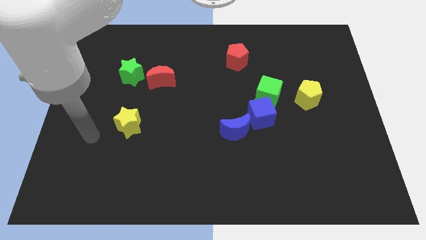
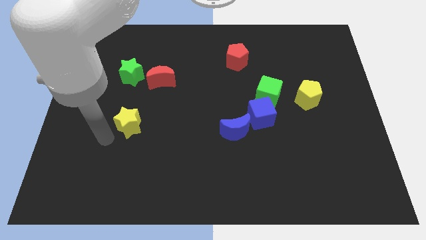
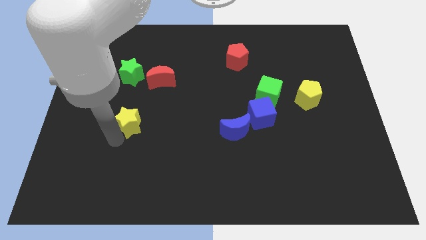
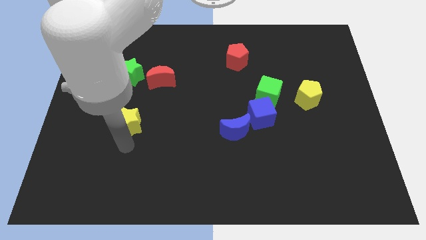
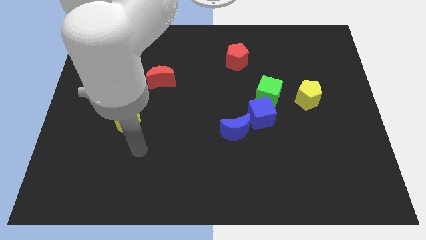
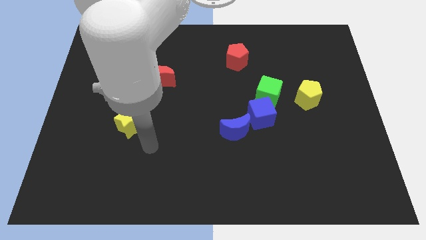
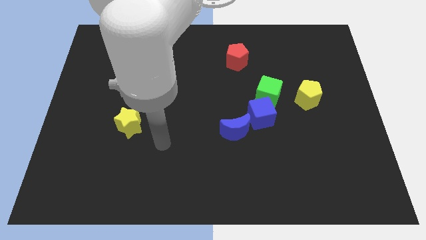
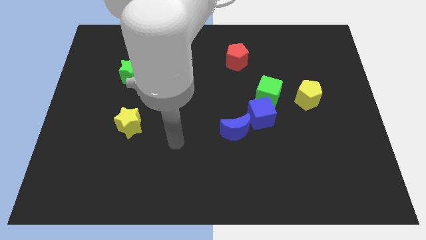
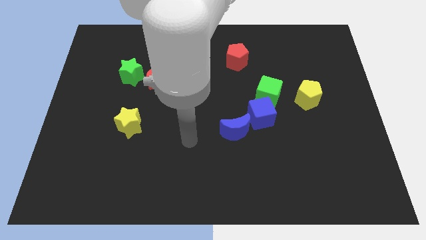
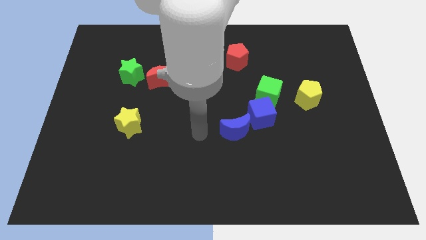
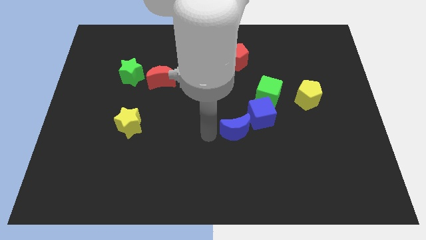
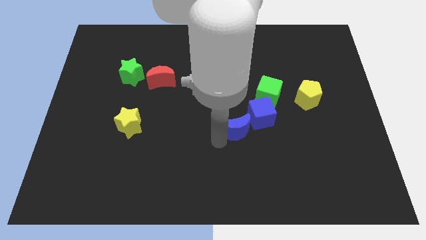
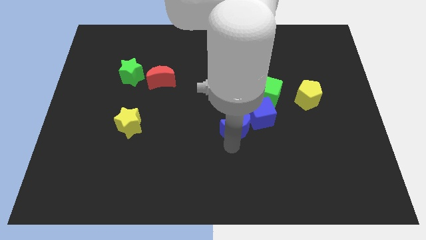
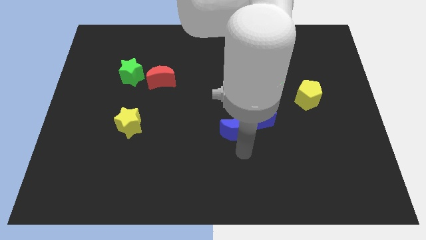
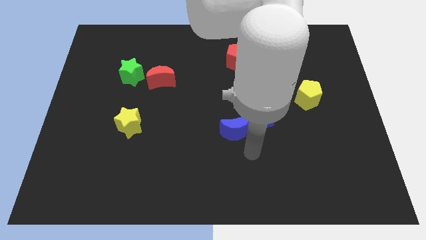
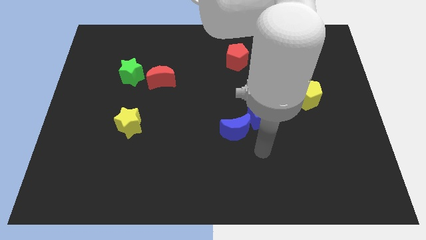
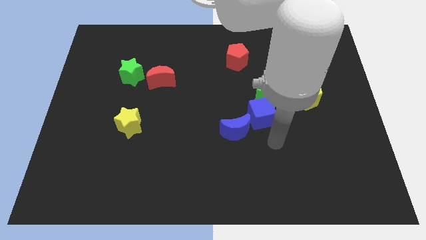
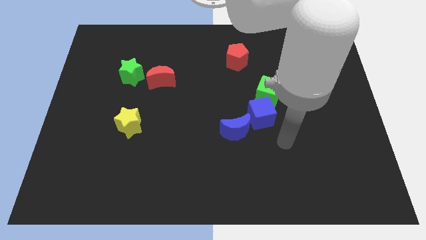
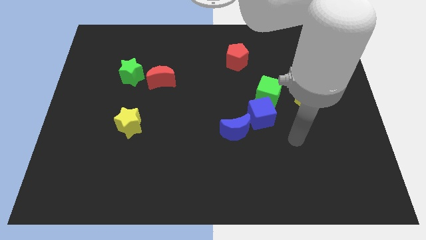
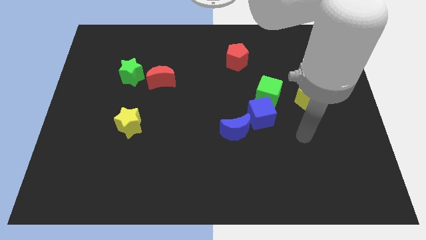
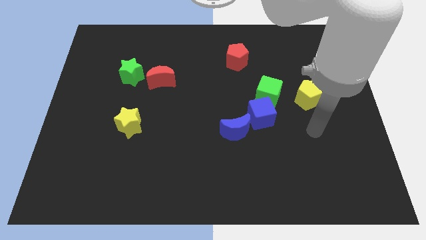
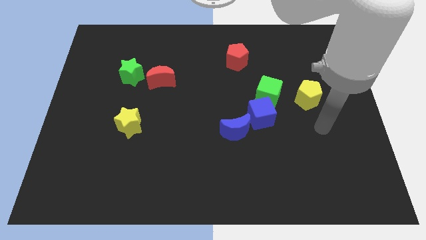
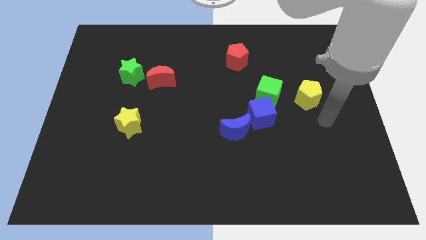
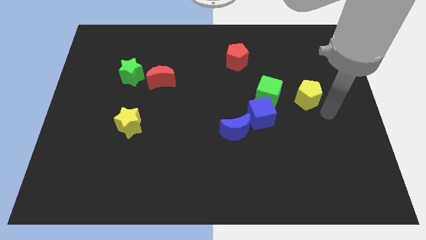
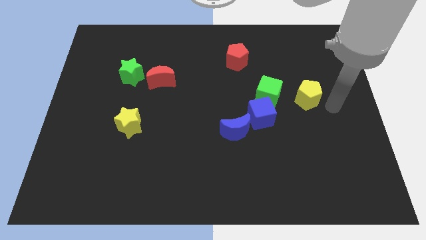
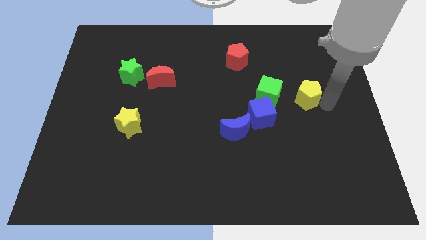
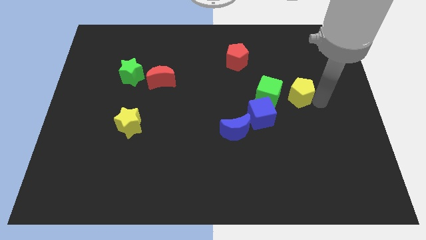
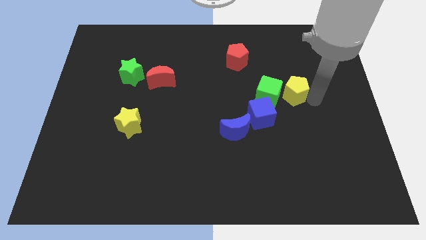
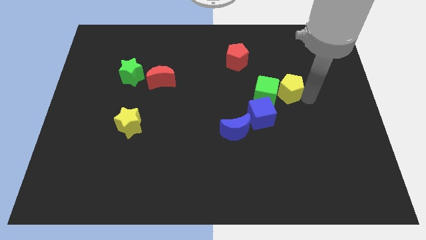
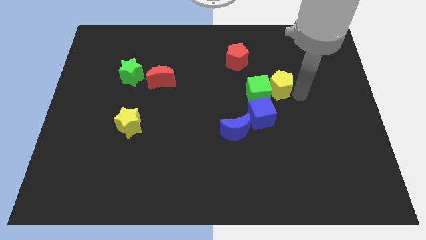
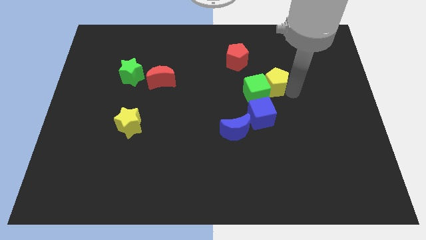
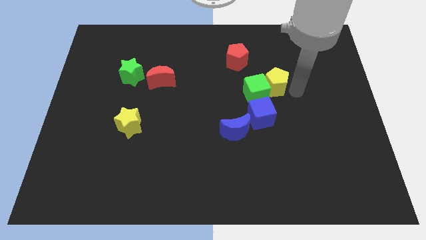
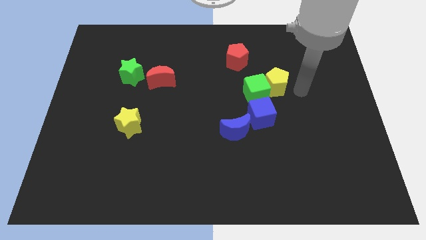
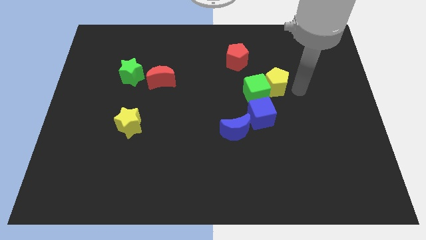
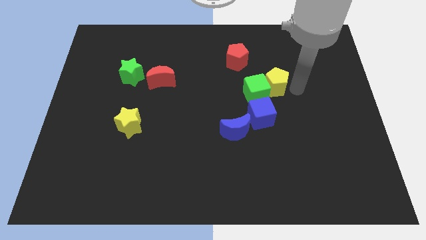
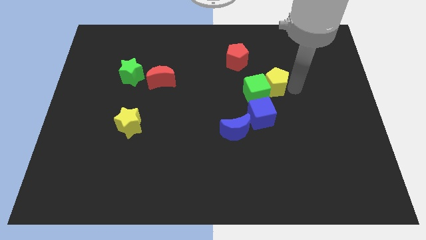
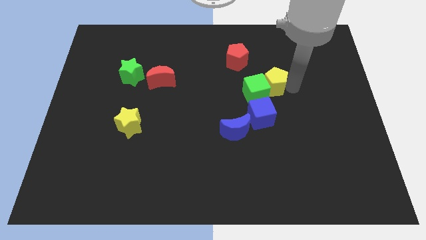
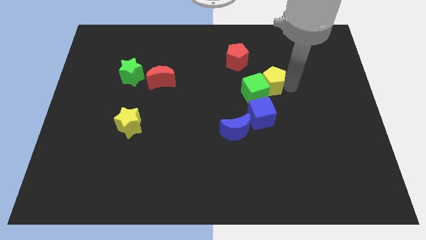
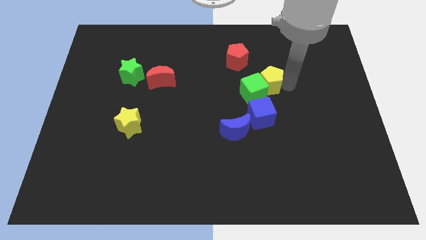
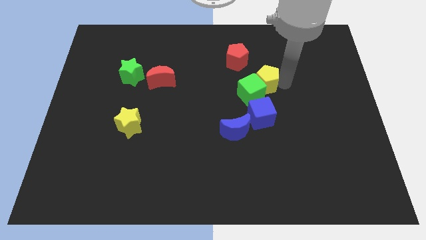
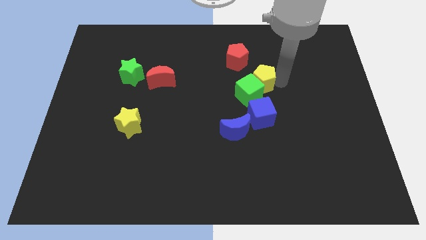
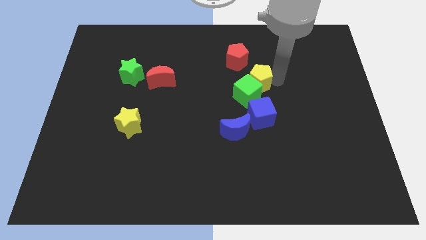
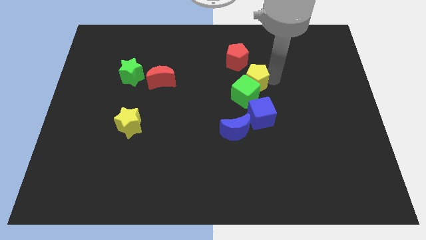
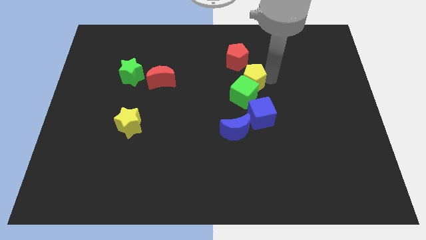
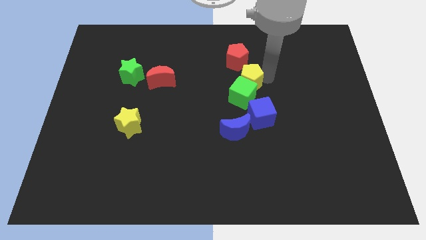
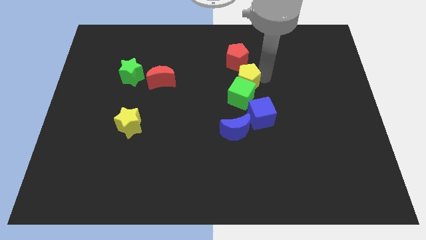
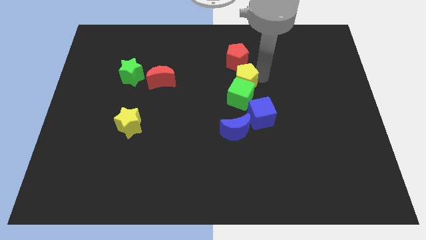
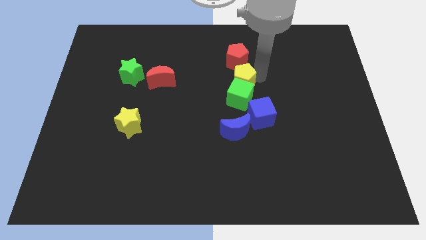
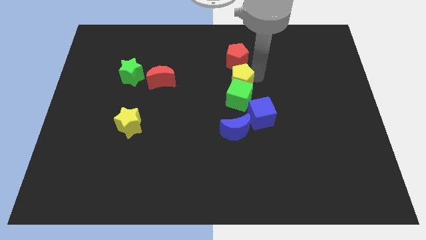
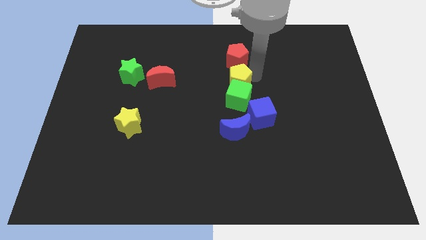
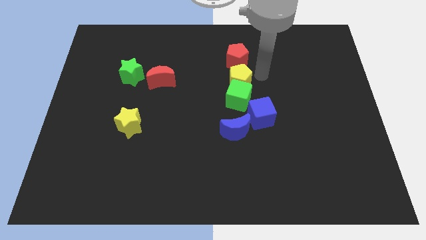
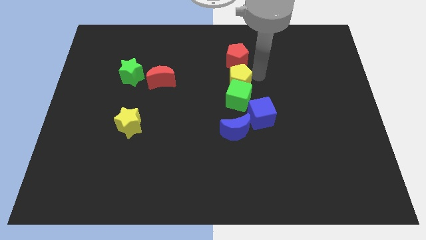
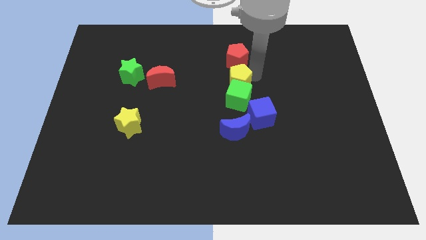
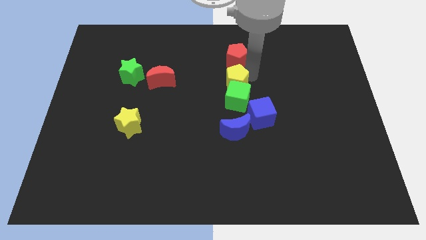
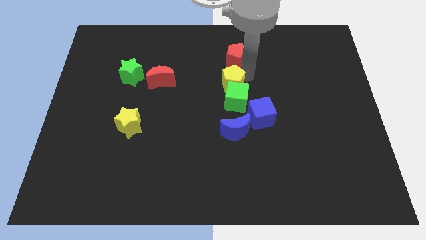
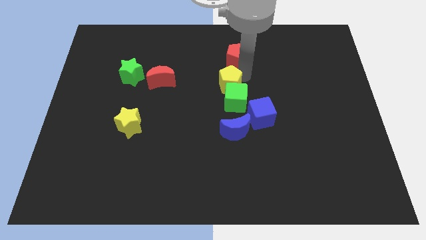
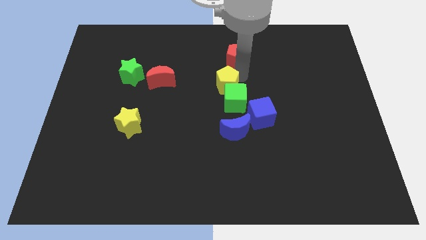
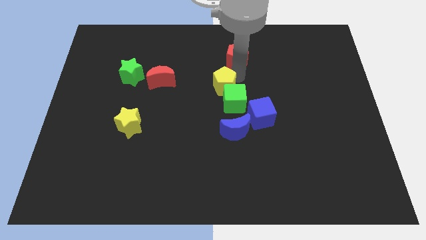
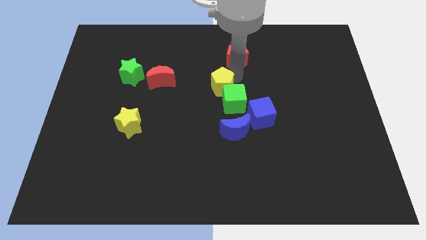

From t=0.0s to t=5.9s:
slide the yellow pentagon to the left

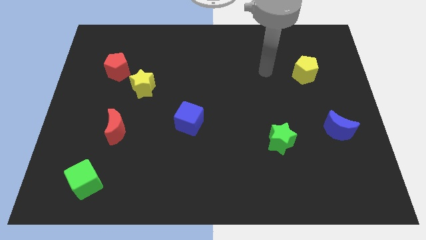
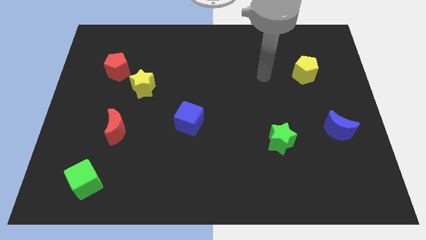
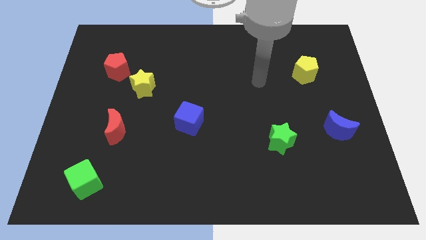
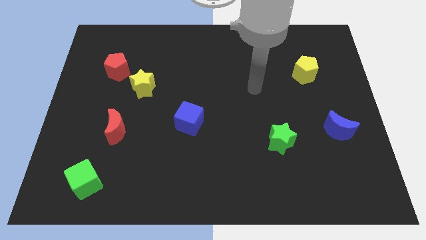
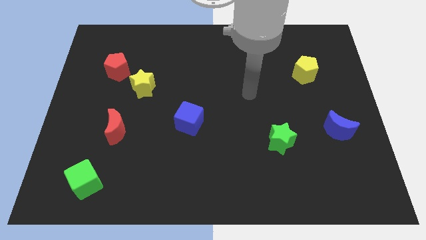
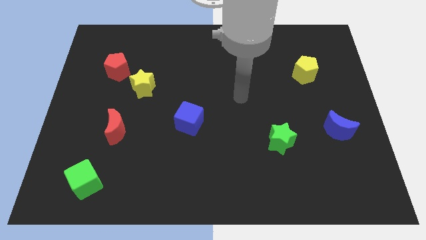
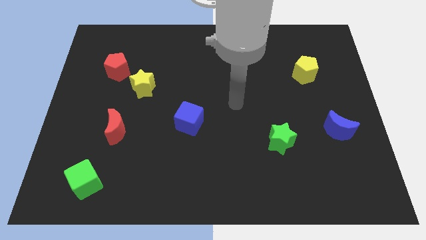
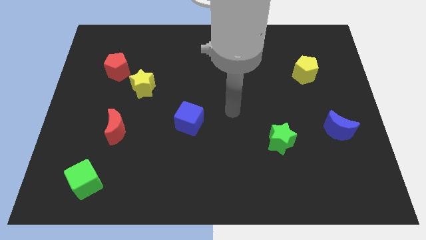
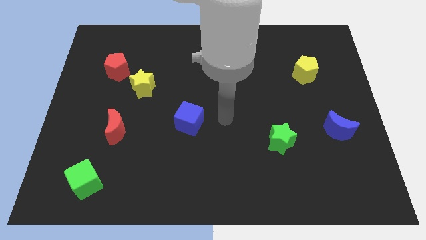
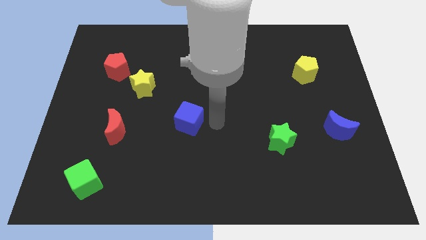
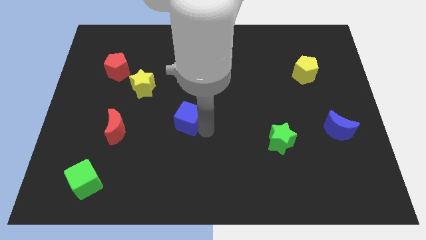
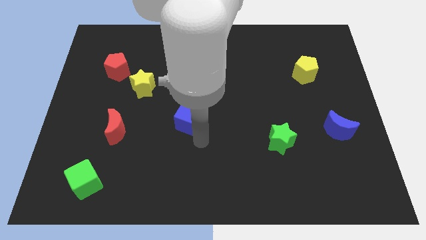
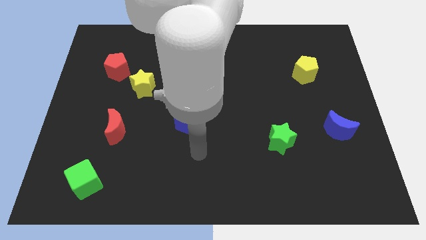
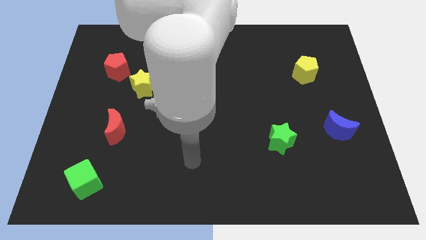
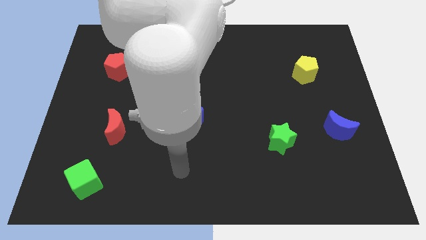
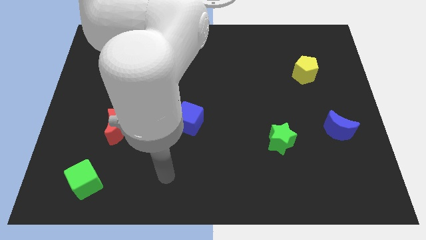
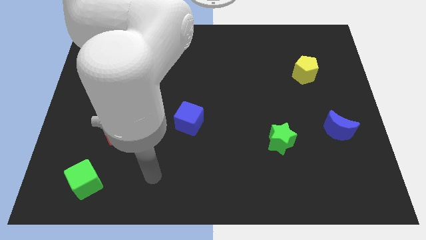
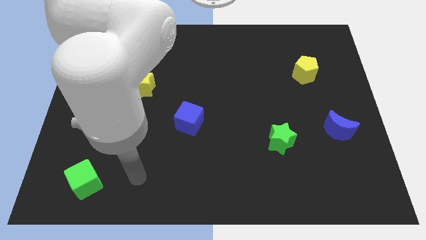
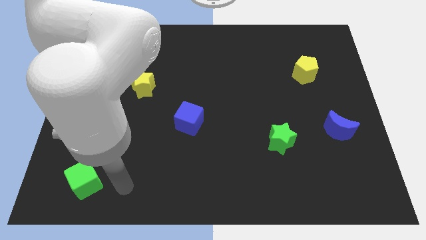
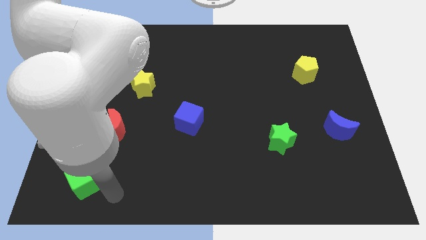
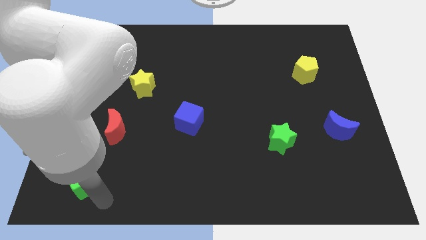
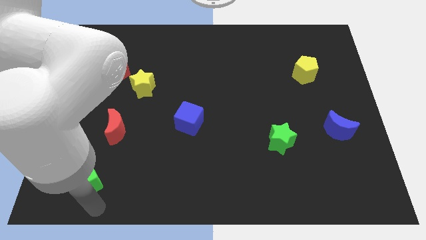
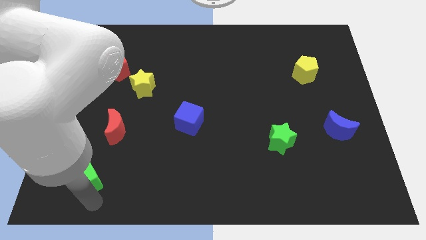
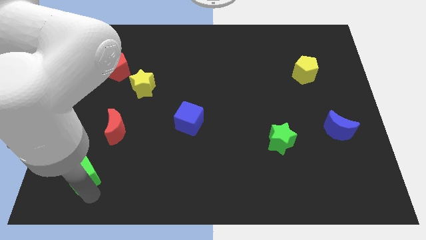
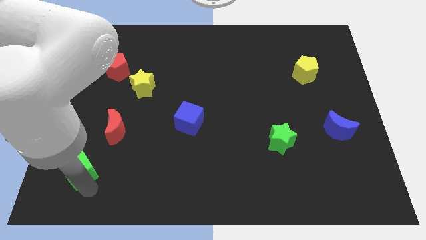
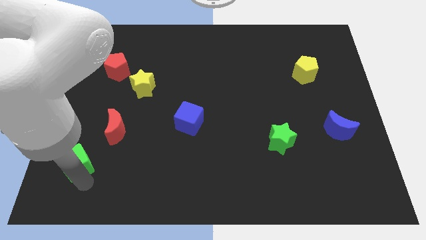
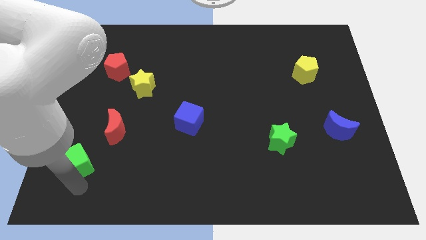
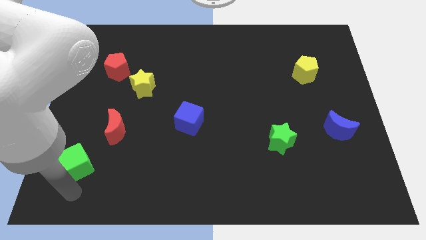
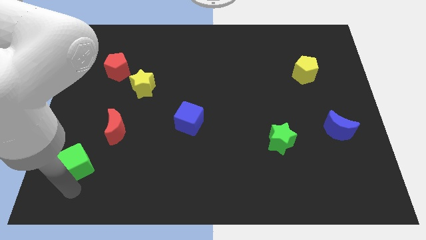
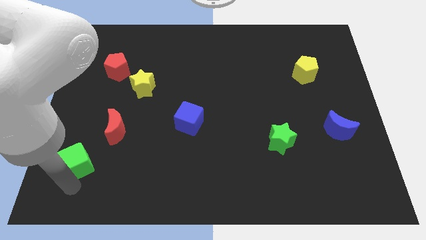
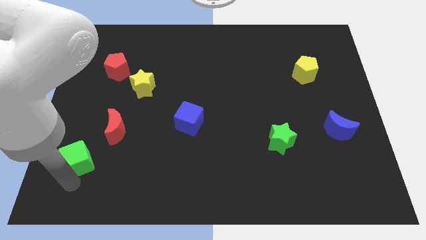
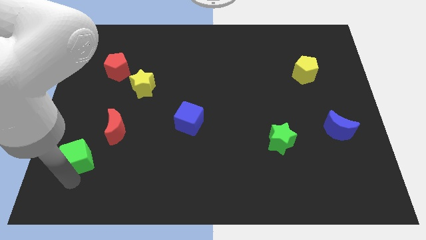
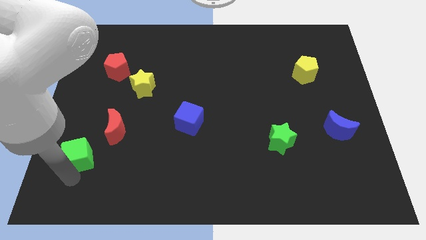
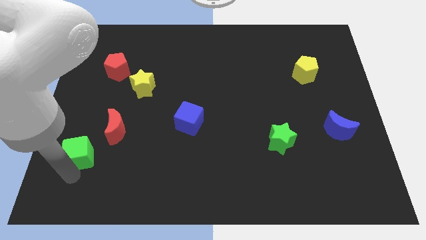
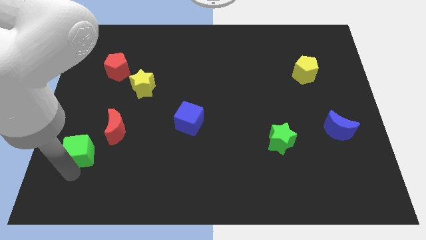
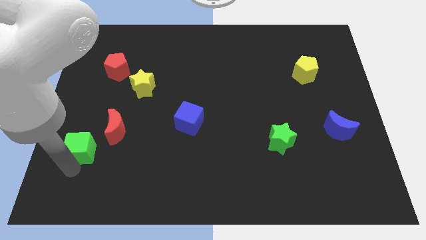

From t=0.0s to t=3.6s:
push the green cube a little upwards
